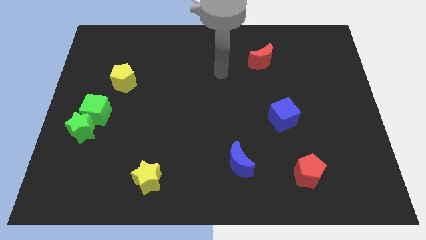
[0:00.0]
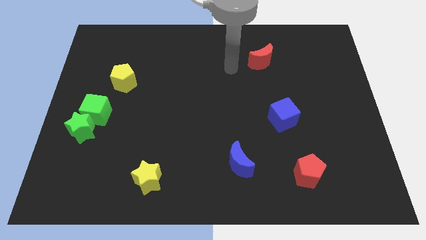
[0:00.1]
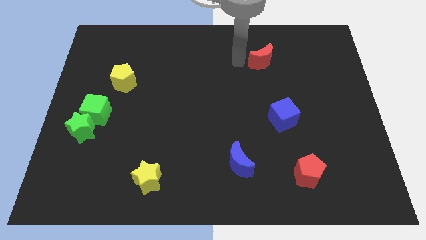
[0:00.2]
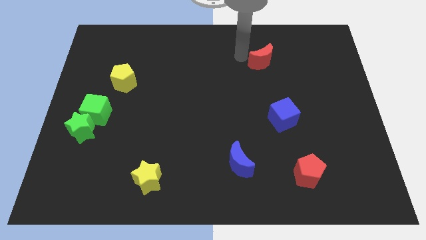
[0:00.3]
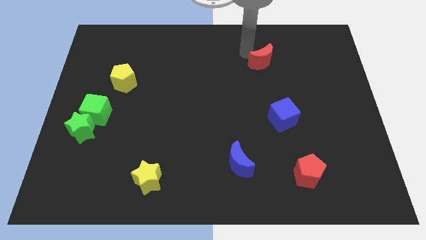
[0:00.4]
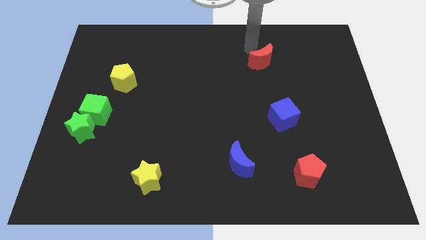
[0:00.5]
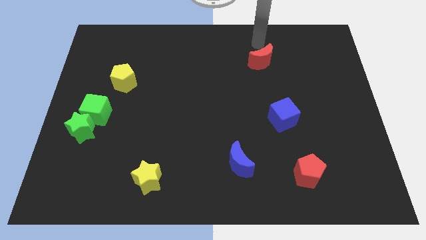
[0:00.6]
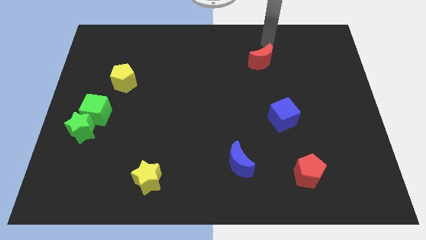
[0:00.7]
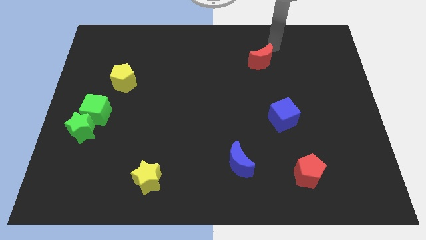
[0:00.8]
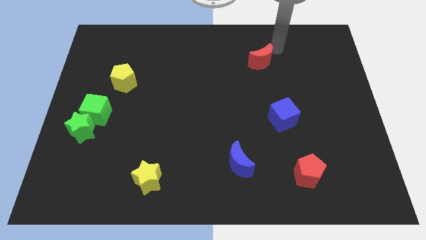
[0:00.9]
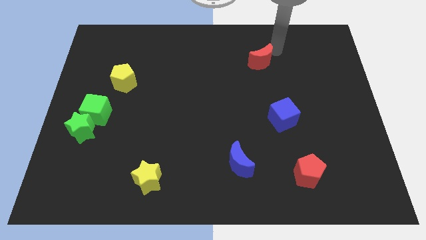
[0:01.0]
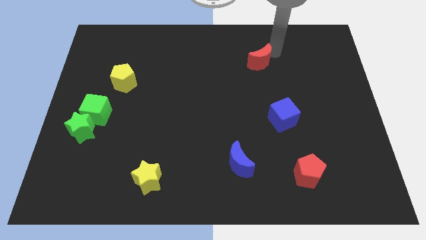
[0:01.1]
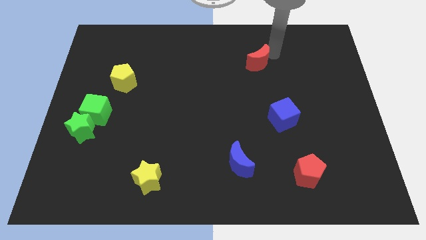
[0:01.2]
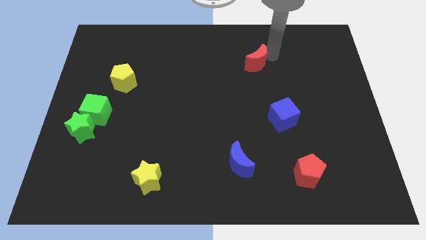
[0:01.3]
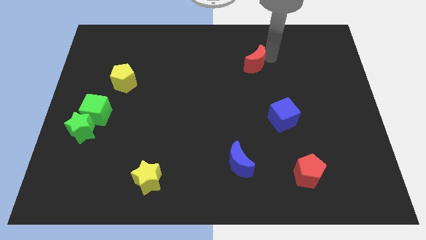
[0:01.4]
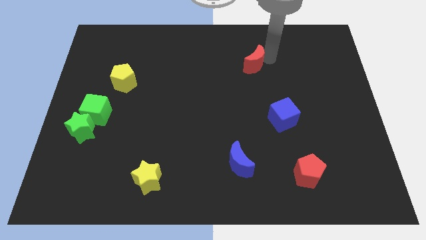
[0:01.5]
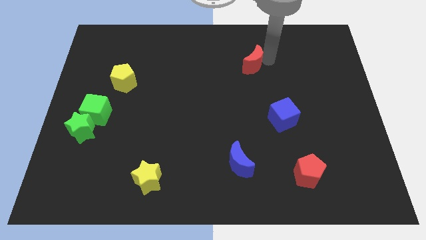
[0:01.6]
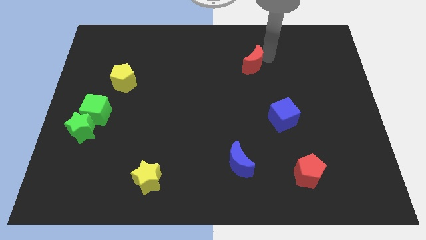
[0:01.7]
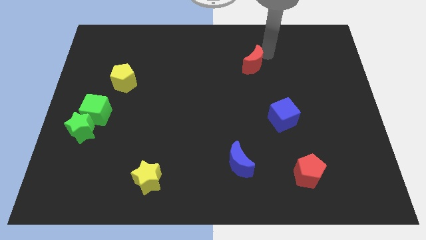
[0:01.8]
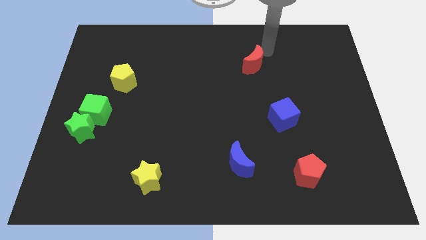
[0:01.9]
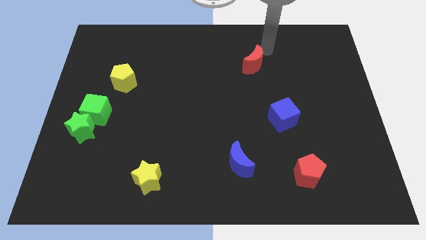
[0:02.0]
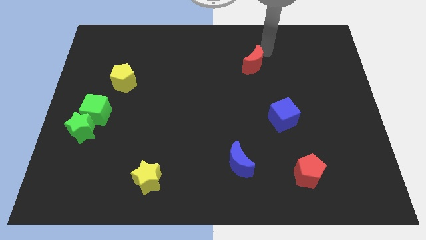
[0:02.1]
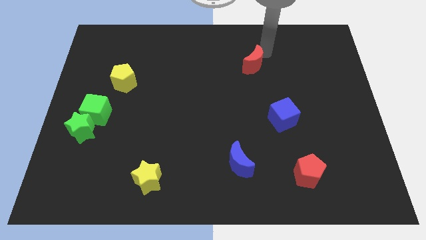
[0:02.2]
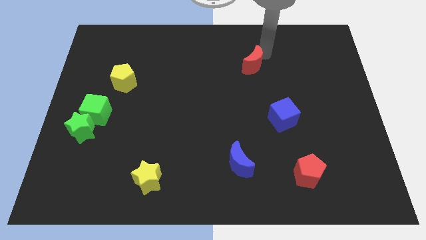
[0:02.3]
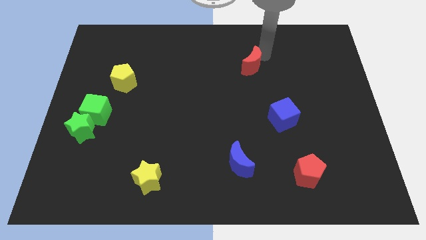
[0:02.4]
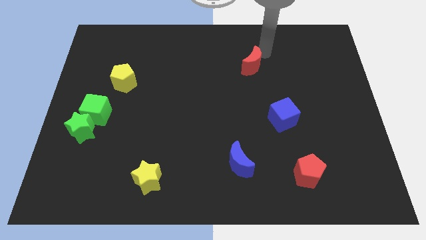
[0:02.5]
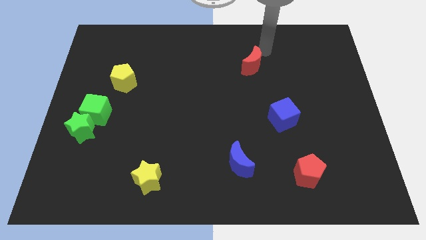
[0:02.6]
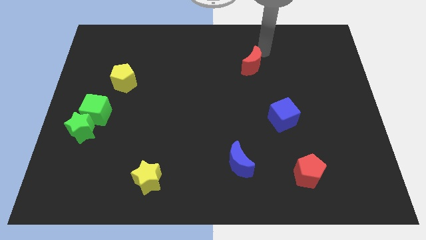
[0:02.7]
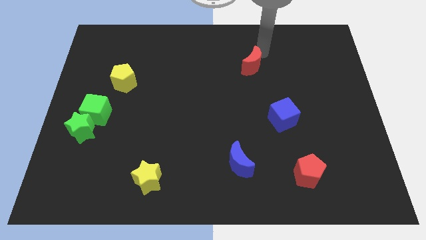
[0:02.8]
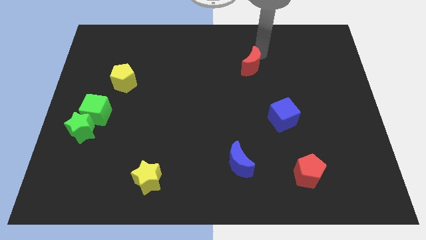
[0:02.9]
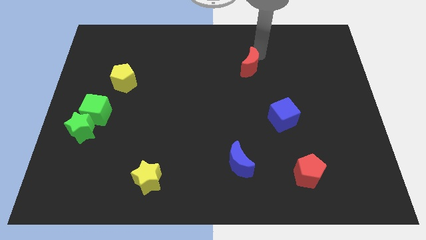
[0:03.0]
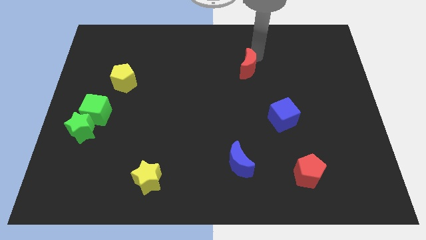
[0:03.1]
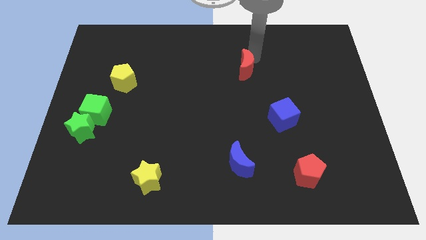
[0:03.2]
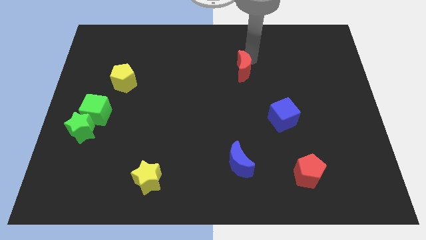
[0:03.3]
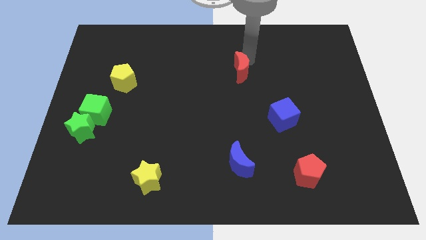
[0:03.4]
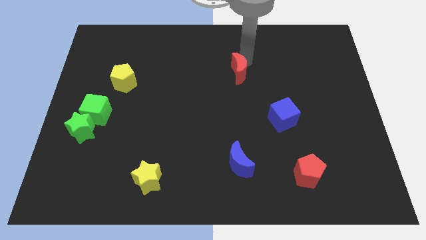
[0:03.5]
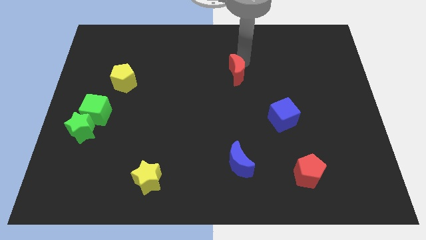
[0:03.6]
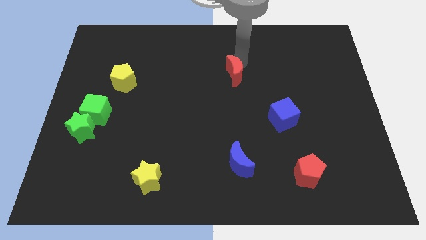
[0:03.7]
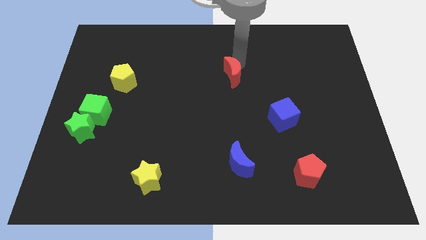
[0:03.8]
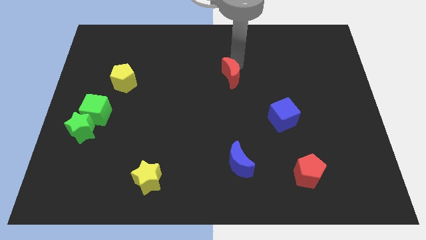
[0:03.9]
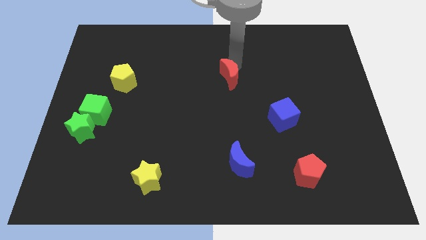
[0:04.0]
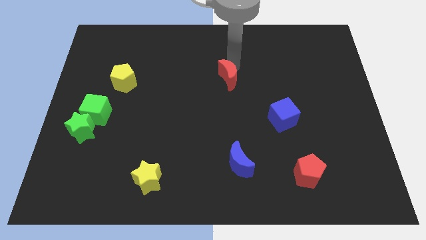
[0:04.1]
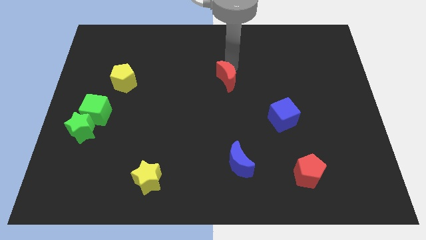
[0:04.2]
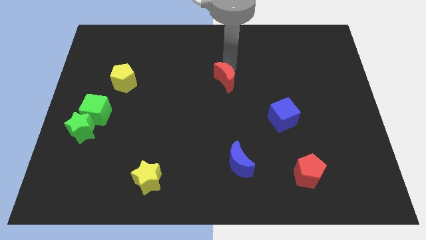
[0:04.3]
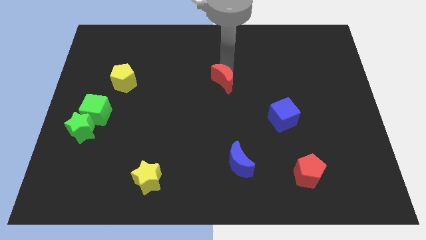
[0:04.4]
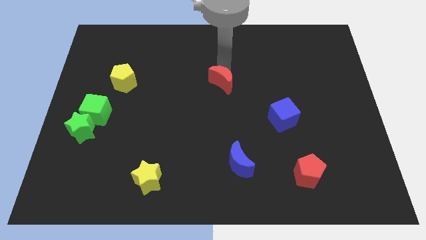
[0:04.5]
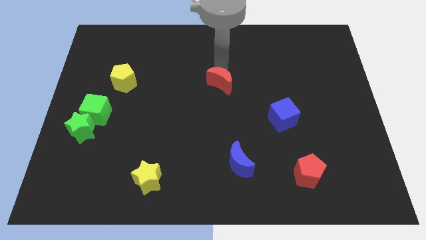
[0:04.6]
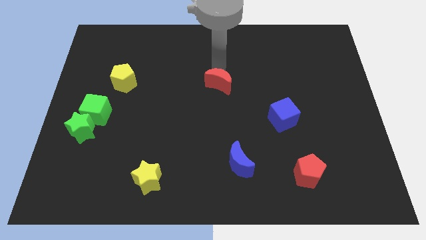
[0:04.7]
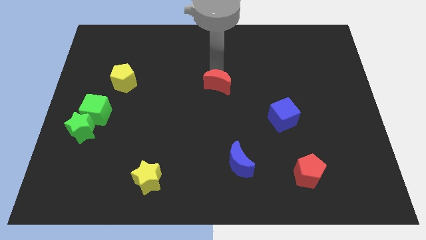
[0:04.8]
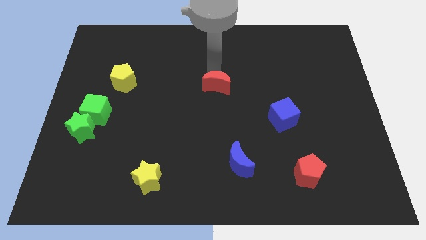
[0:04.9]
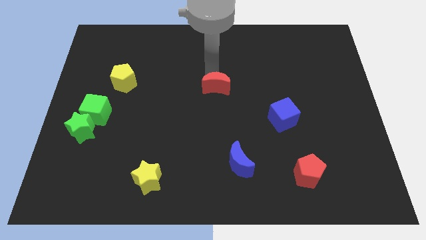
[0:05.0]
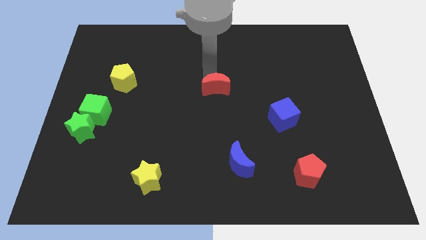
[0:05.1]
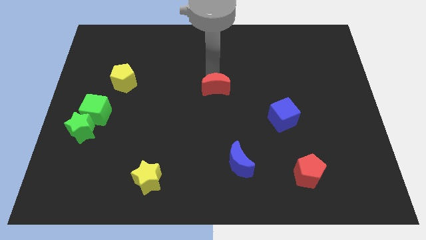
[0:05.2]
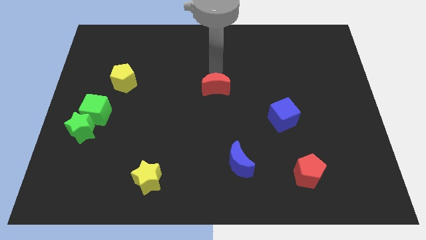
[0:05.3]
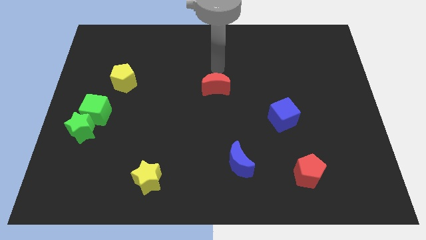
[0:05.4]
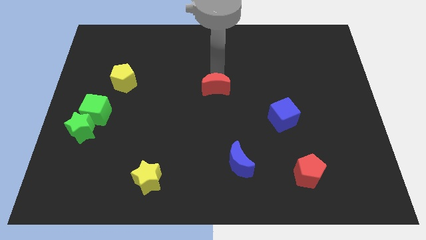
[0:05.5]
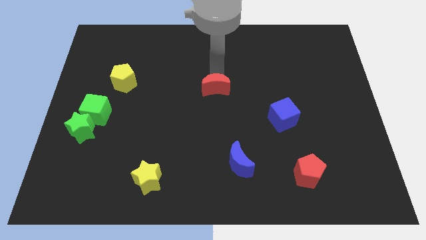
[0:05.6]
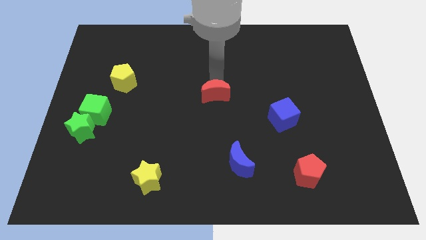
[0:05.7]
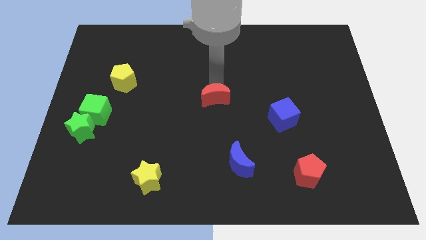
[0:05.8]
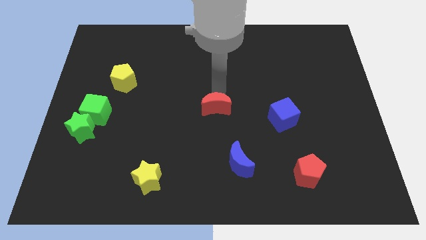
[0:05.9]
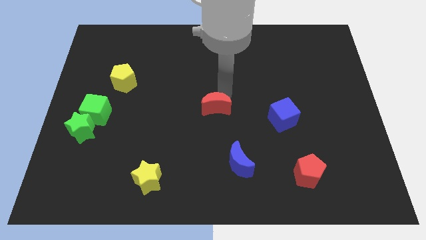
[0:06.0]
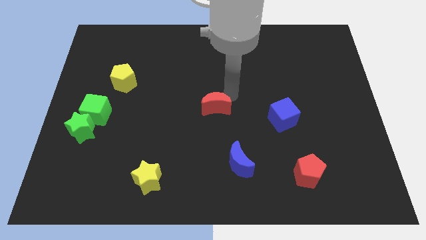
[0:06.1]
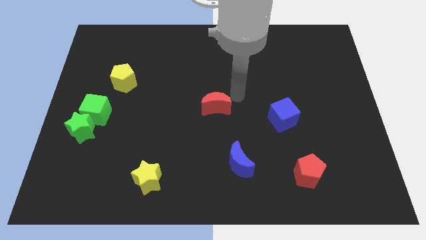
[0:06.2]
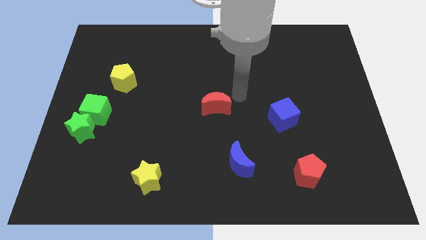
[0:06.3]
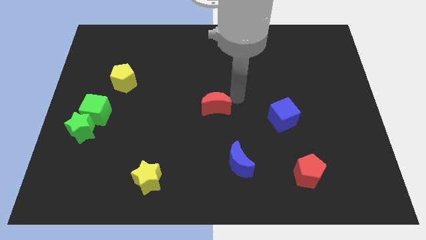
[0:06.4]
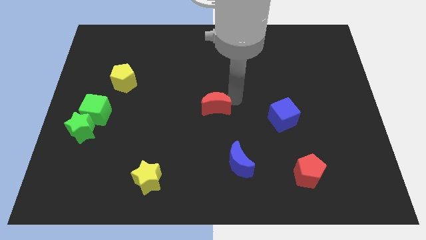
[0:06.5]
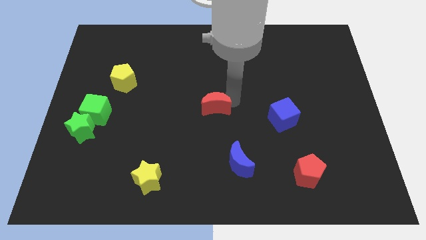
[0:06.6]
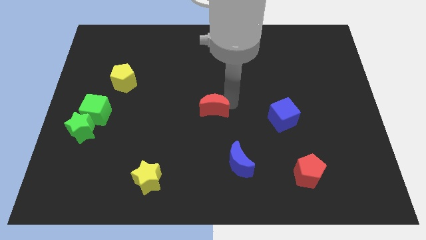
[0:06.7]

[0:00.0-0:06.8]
push the red moon diagonally downwards and left

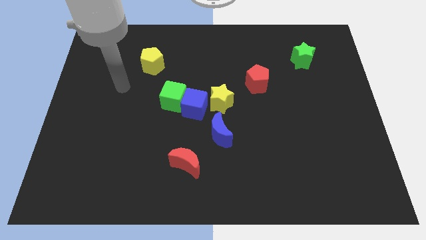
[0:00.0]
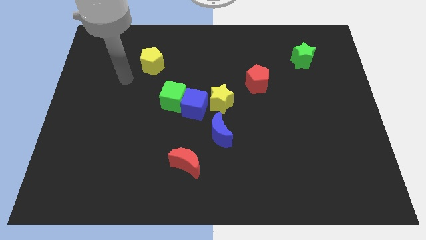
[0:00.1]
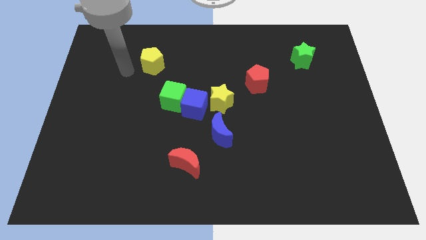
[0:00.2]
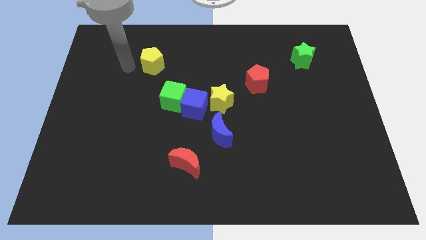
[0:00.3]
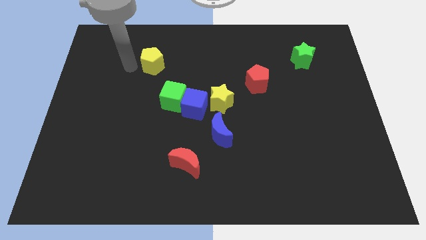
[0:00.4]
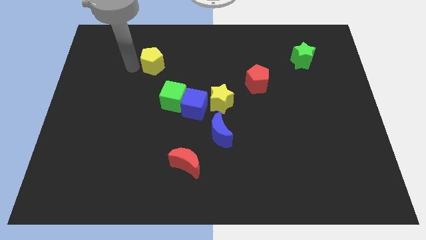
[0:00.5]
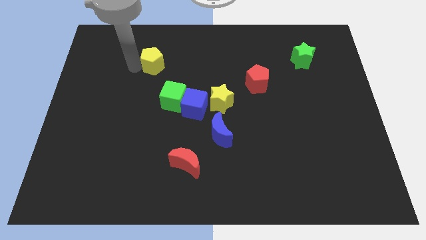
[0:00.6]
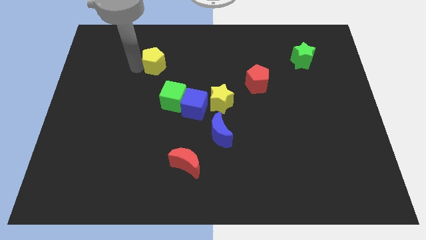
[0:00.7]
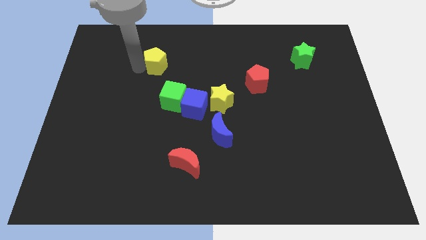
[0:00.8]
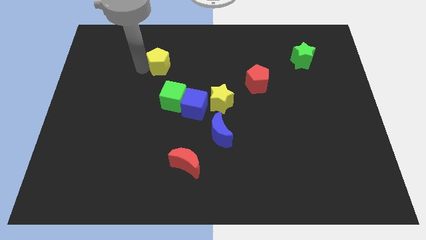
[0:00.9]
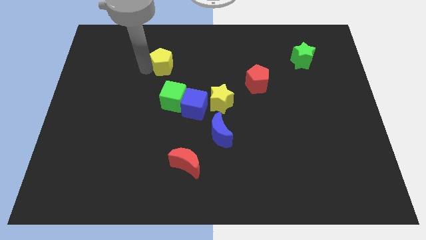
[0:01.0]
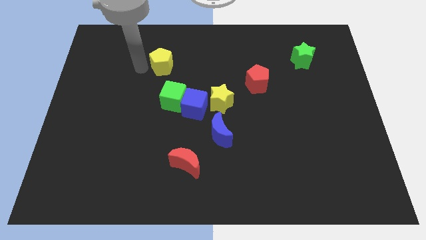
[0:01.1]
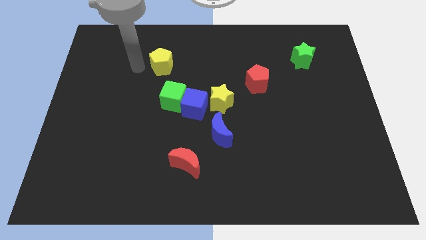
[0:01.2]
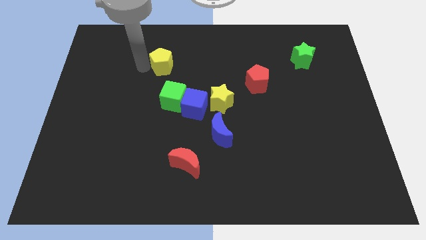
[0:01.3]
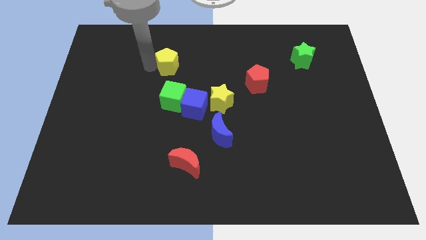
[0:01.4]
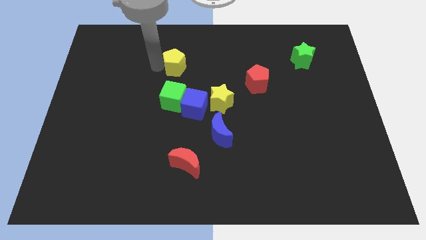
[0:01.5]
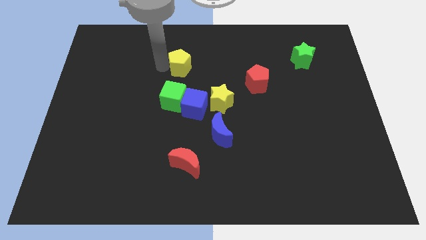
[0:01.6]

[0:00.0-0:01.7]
slightly push the yellow pentagon right
